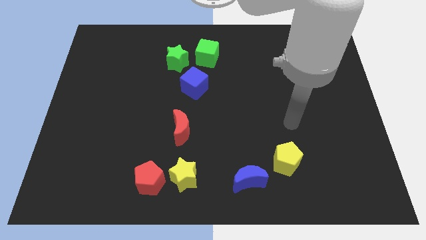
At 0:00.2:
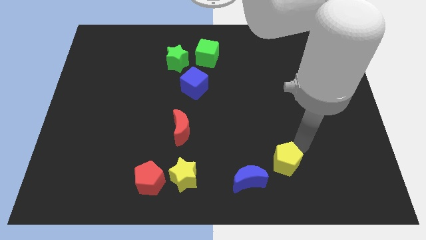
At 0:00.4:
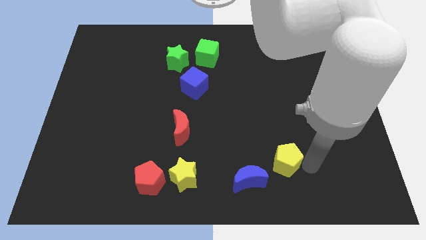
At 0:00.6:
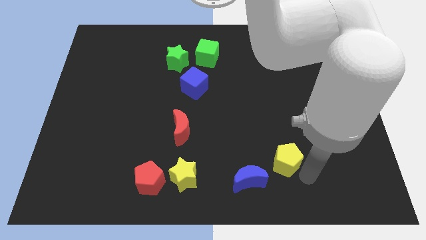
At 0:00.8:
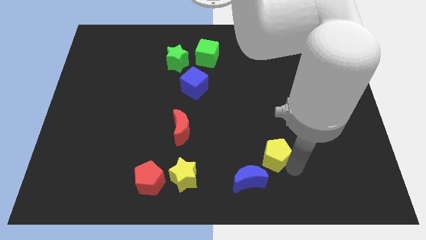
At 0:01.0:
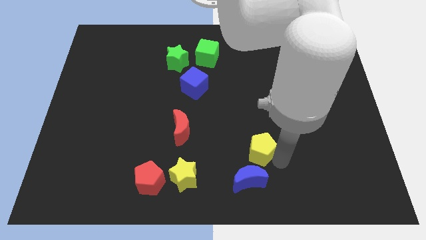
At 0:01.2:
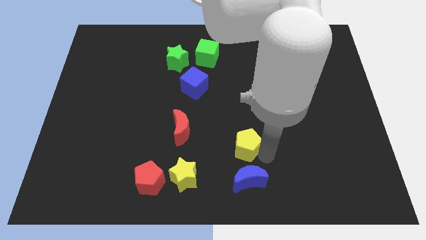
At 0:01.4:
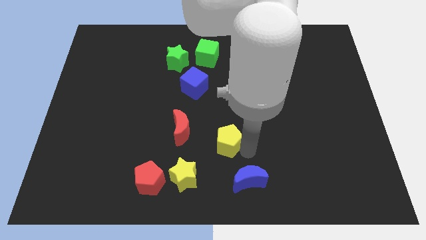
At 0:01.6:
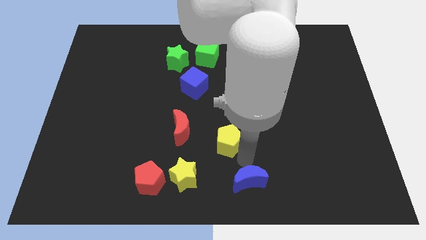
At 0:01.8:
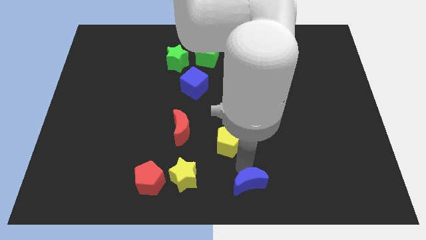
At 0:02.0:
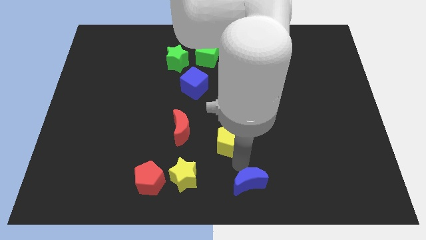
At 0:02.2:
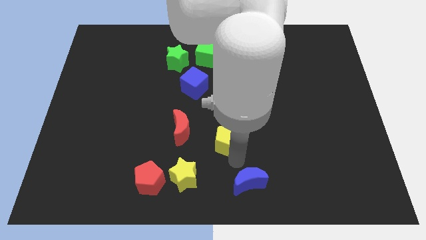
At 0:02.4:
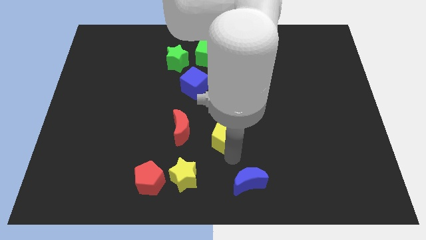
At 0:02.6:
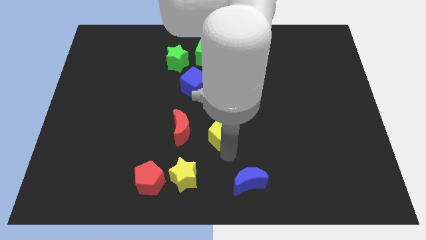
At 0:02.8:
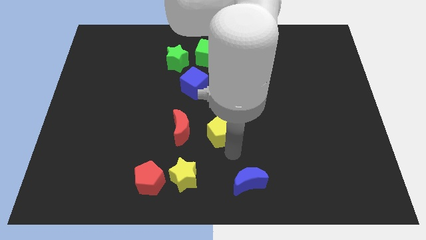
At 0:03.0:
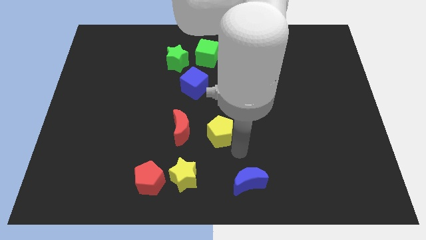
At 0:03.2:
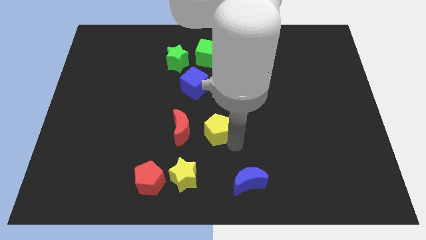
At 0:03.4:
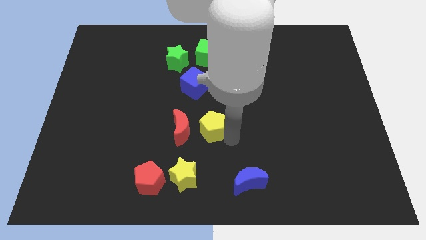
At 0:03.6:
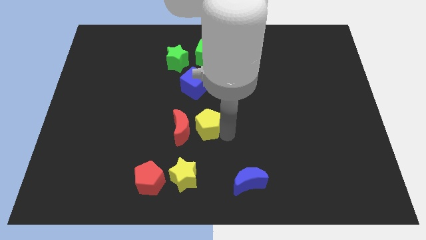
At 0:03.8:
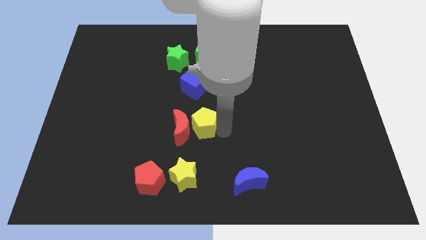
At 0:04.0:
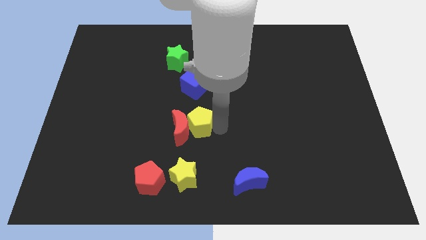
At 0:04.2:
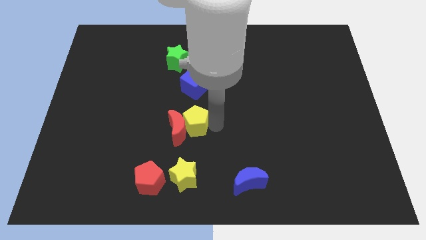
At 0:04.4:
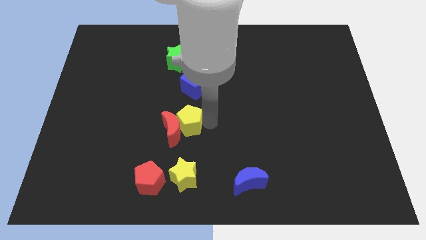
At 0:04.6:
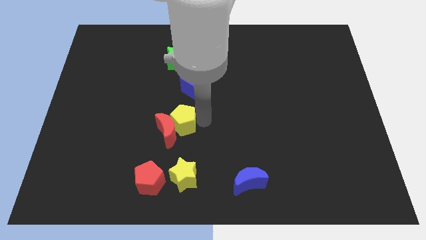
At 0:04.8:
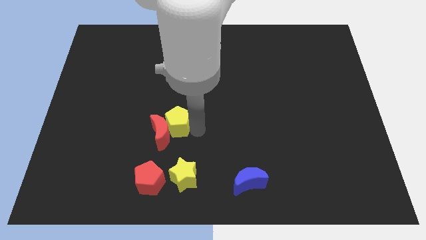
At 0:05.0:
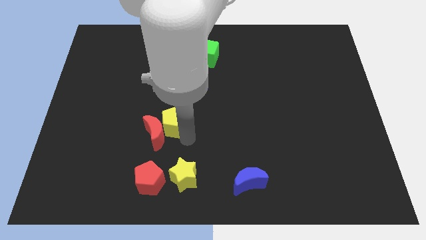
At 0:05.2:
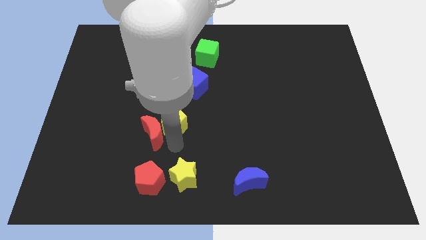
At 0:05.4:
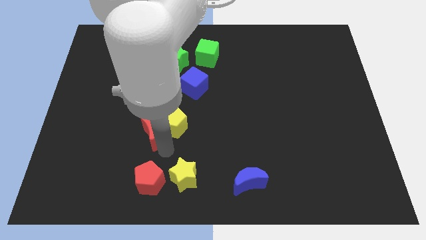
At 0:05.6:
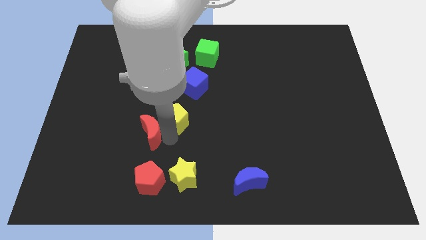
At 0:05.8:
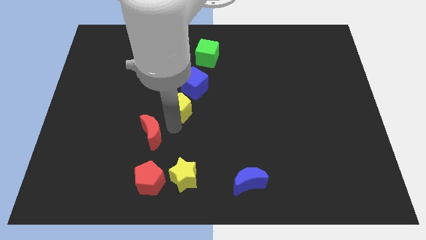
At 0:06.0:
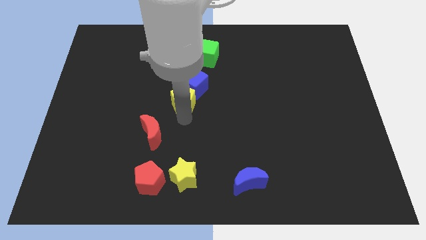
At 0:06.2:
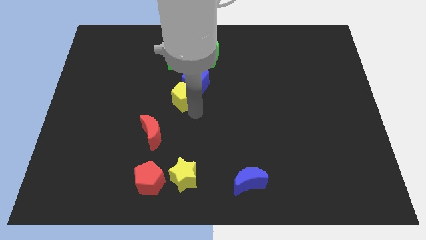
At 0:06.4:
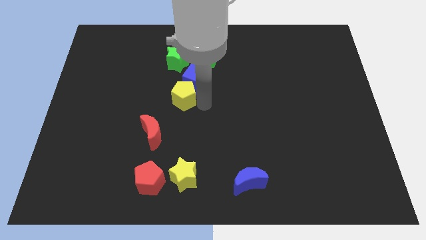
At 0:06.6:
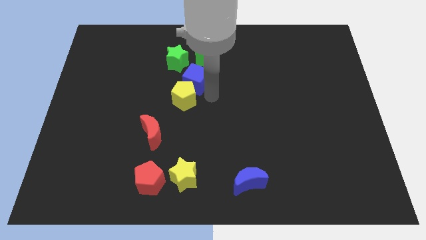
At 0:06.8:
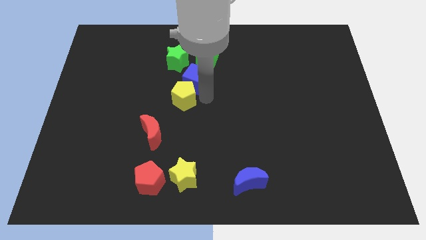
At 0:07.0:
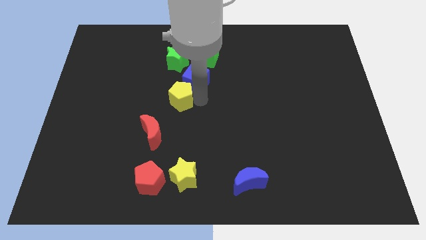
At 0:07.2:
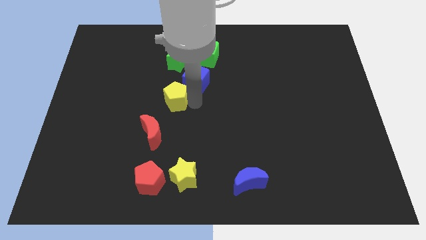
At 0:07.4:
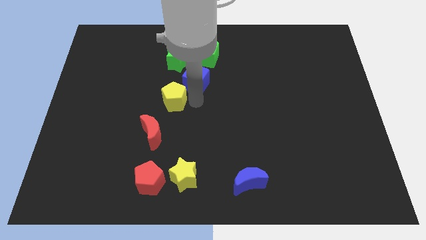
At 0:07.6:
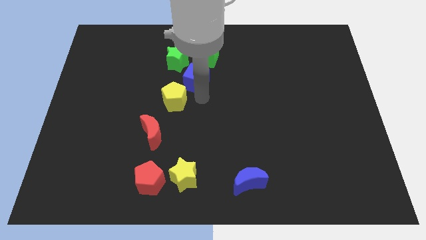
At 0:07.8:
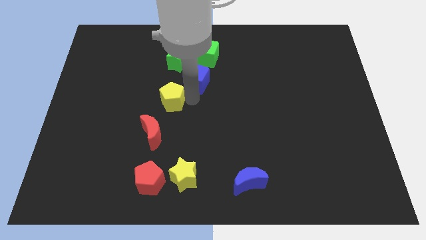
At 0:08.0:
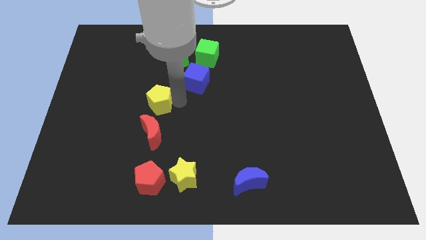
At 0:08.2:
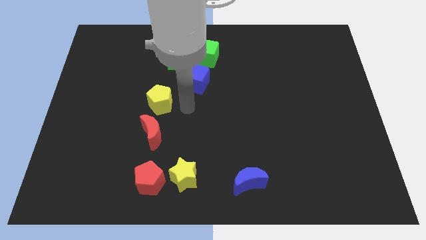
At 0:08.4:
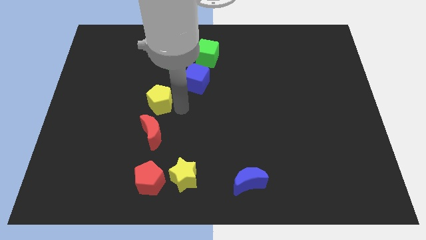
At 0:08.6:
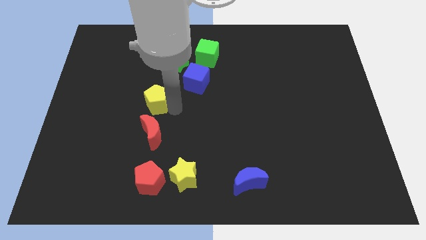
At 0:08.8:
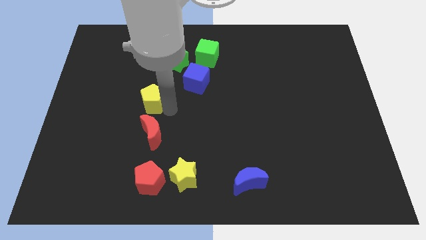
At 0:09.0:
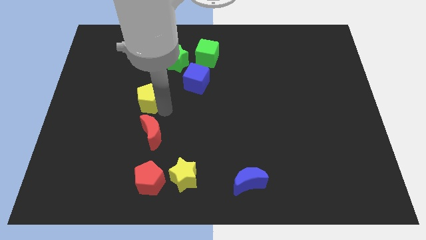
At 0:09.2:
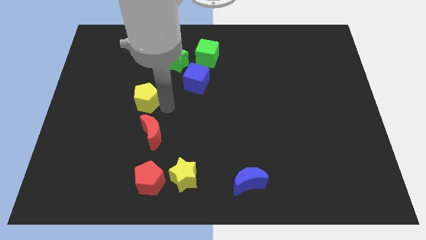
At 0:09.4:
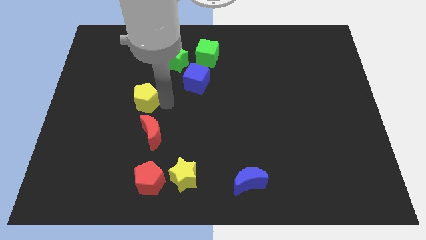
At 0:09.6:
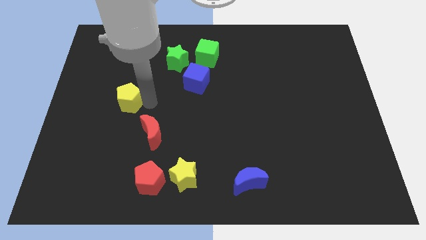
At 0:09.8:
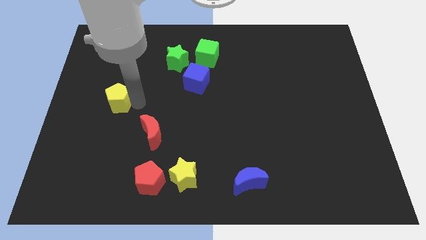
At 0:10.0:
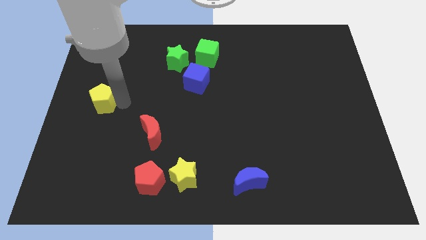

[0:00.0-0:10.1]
put the yellow pentagon to the left side of the board

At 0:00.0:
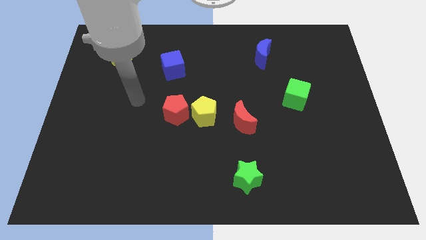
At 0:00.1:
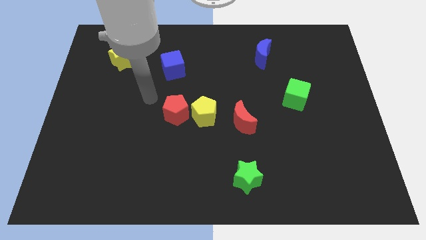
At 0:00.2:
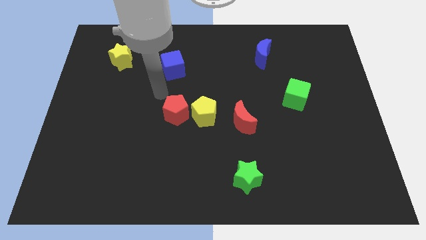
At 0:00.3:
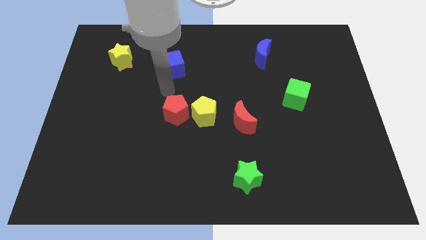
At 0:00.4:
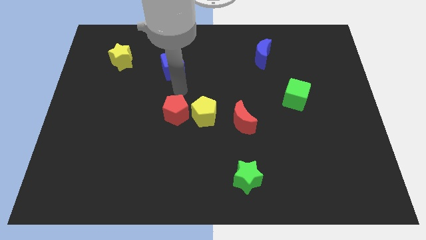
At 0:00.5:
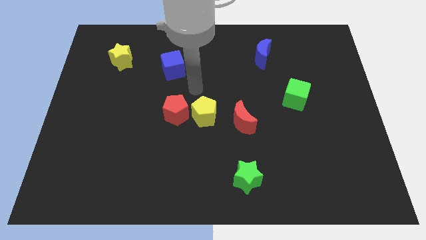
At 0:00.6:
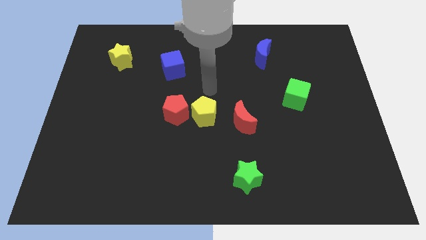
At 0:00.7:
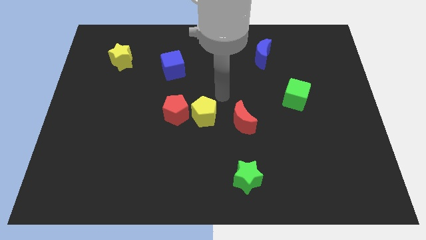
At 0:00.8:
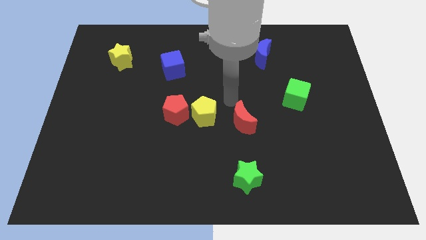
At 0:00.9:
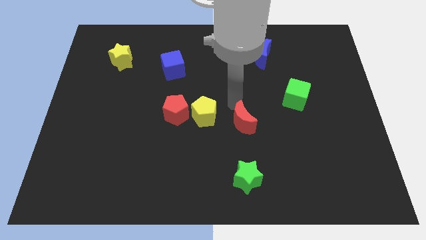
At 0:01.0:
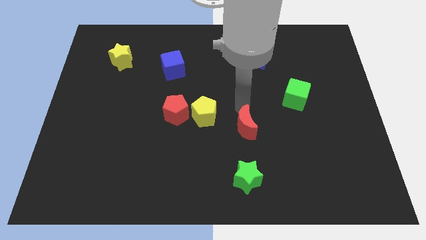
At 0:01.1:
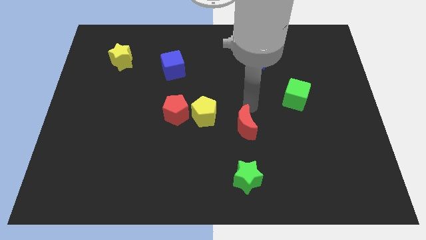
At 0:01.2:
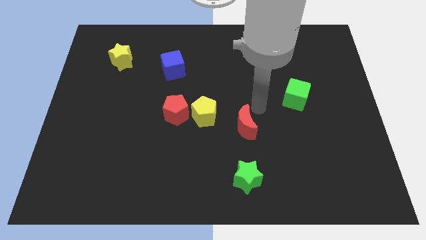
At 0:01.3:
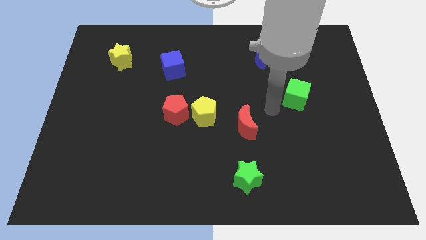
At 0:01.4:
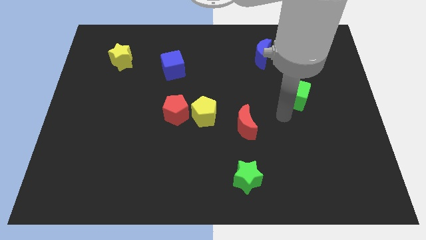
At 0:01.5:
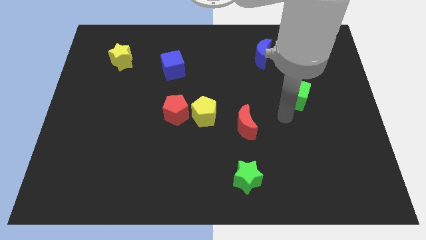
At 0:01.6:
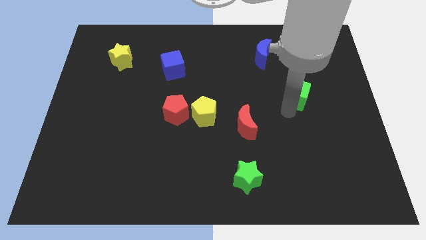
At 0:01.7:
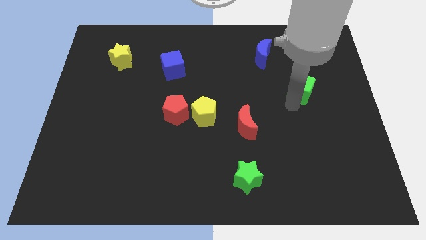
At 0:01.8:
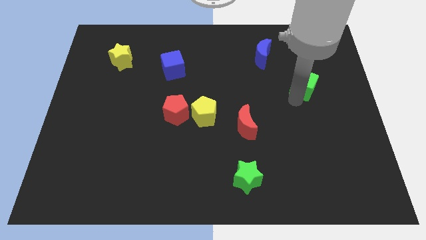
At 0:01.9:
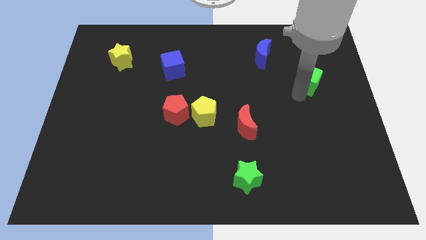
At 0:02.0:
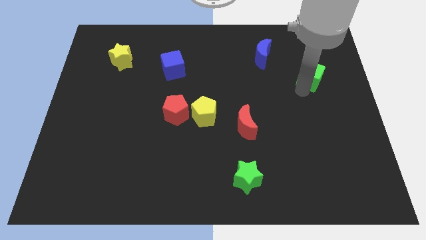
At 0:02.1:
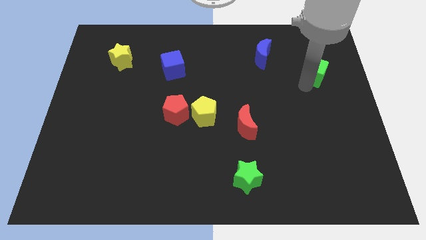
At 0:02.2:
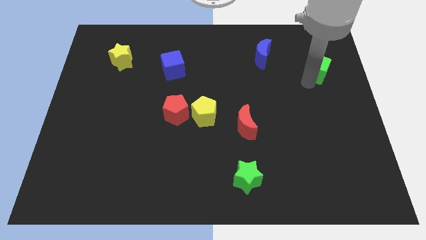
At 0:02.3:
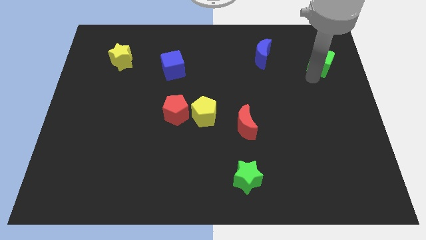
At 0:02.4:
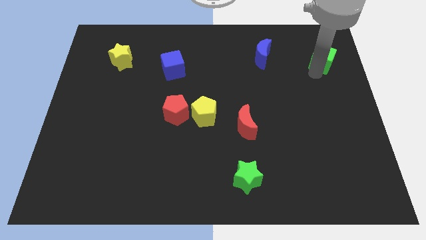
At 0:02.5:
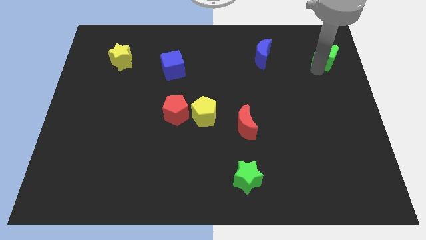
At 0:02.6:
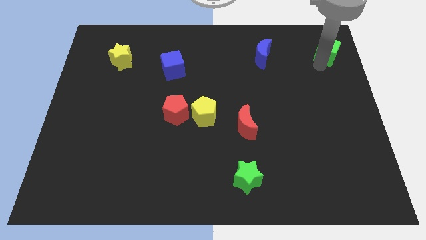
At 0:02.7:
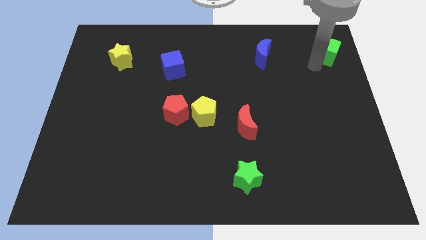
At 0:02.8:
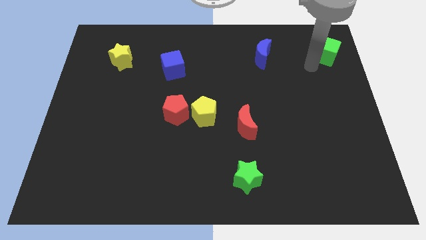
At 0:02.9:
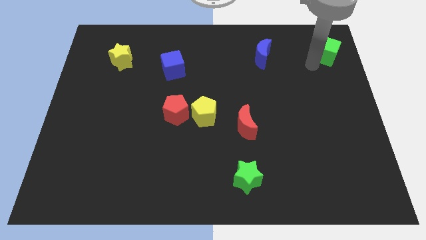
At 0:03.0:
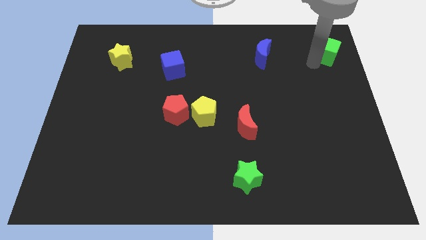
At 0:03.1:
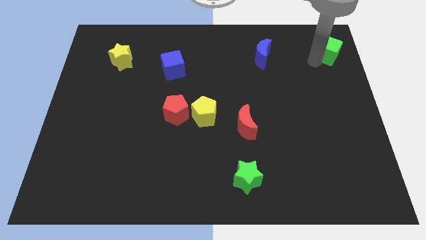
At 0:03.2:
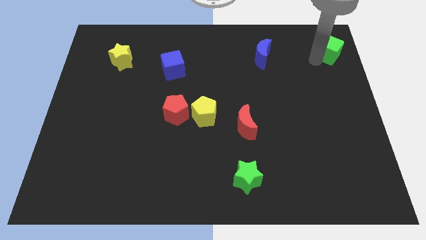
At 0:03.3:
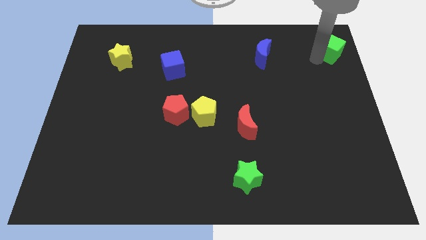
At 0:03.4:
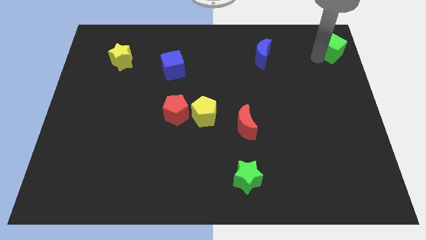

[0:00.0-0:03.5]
put the green cube to the top right of the board
